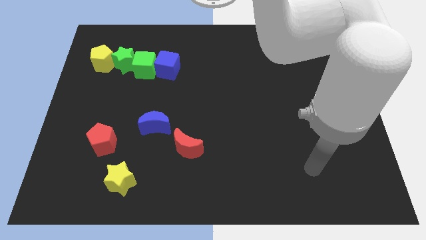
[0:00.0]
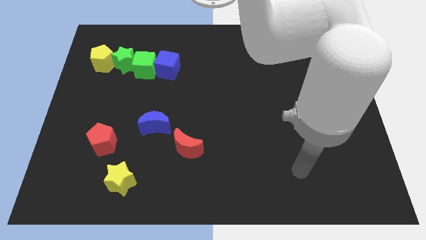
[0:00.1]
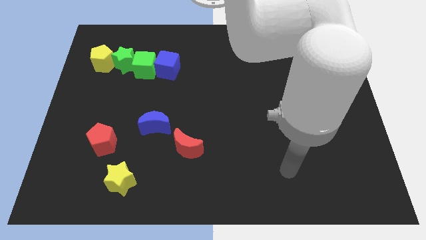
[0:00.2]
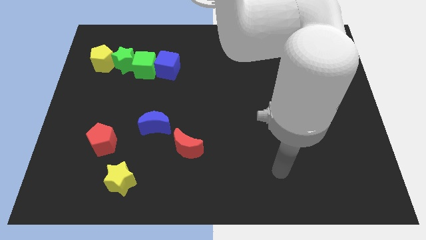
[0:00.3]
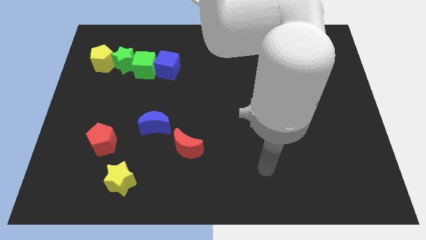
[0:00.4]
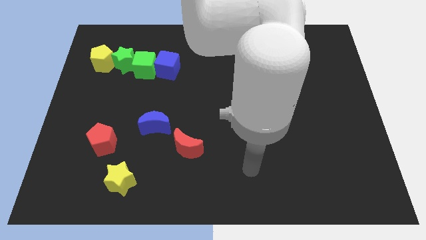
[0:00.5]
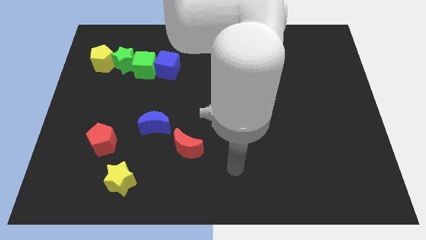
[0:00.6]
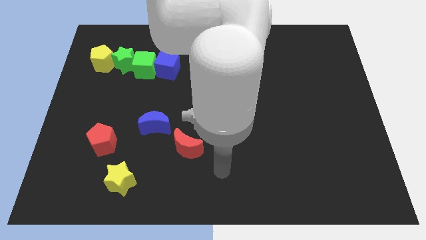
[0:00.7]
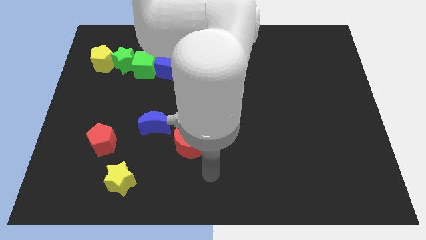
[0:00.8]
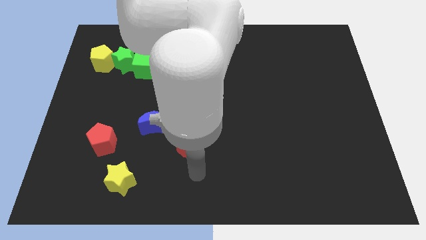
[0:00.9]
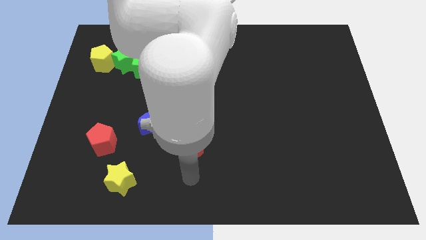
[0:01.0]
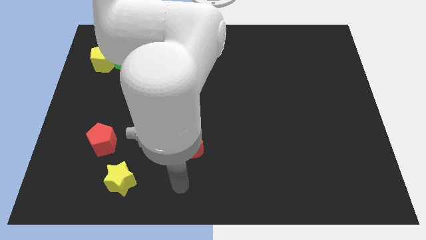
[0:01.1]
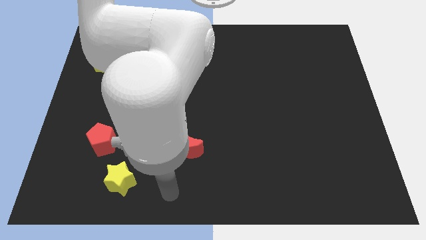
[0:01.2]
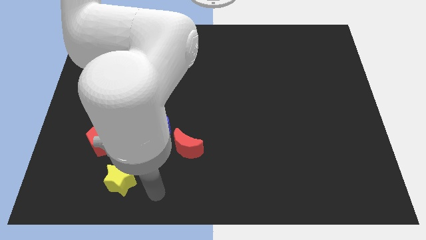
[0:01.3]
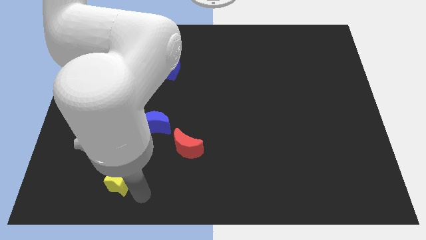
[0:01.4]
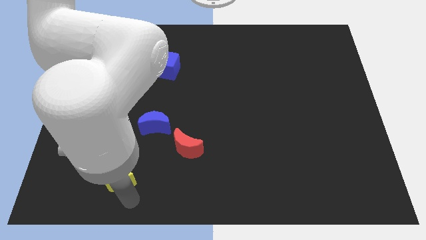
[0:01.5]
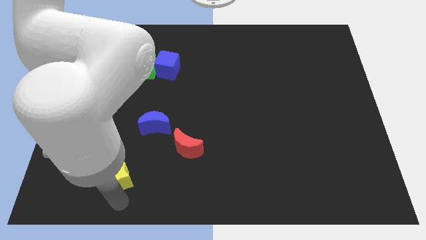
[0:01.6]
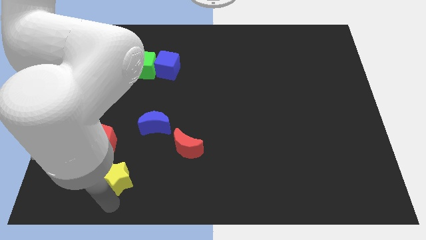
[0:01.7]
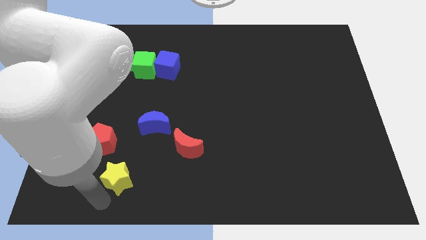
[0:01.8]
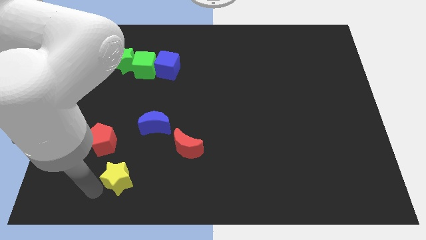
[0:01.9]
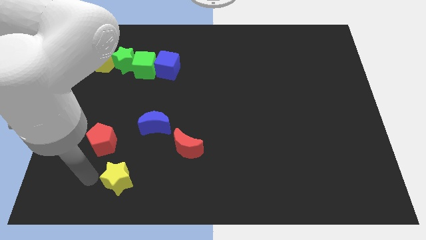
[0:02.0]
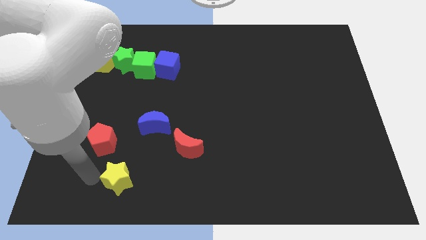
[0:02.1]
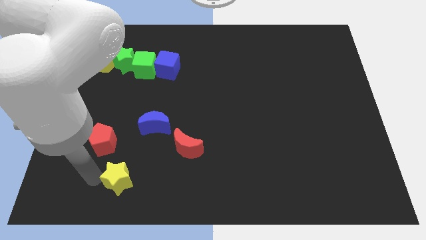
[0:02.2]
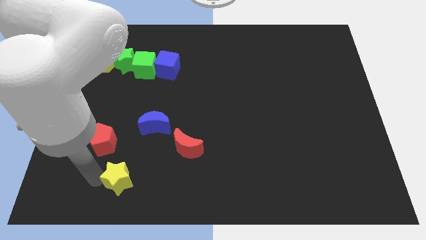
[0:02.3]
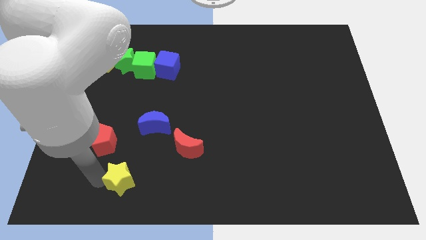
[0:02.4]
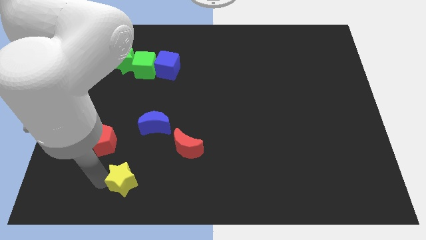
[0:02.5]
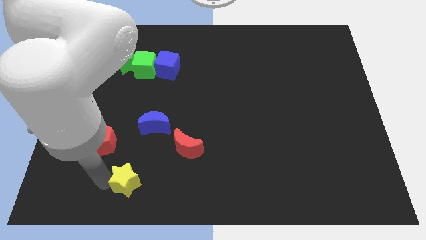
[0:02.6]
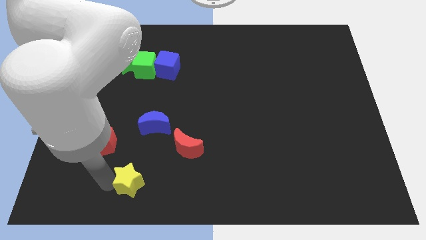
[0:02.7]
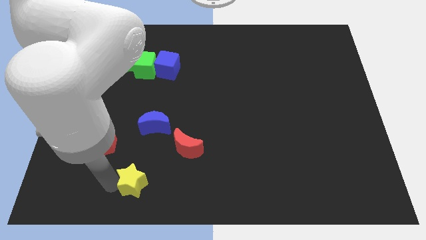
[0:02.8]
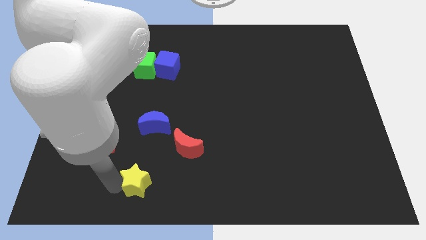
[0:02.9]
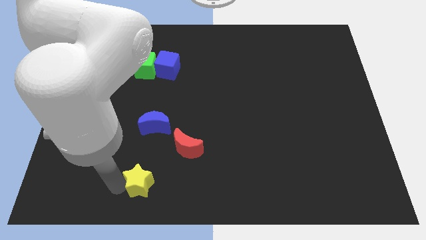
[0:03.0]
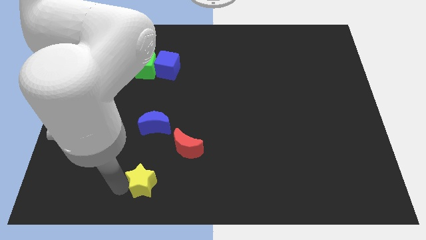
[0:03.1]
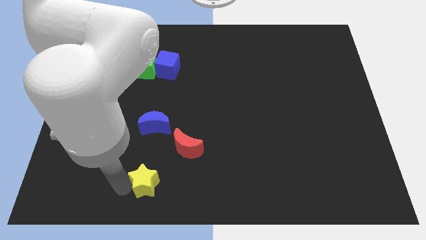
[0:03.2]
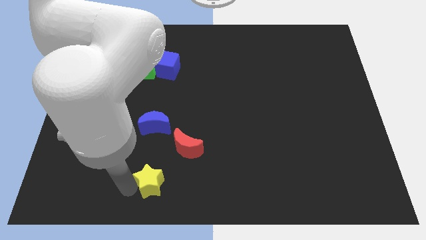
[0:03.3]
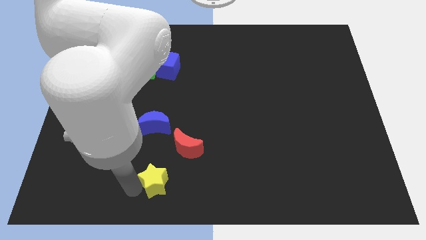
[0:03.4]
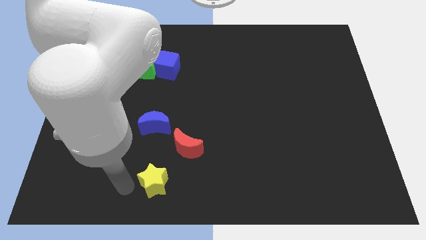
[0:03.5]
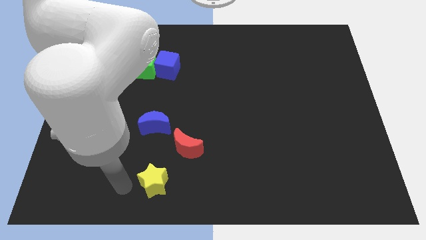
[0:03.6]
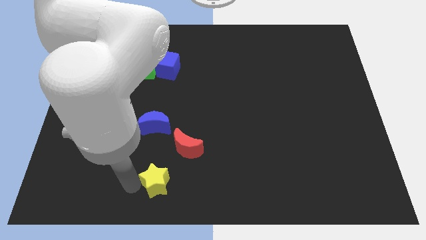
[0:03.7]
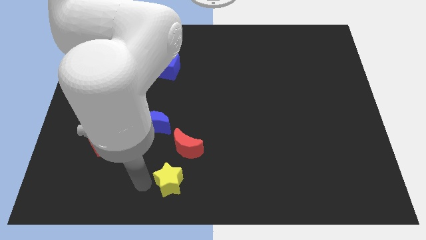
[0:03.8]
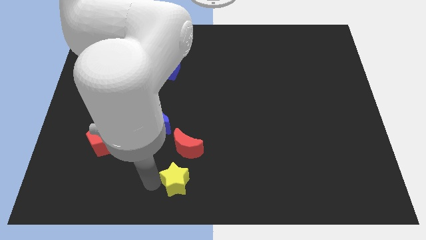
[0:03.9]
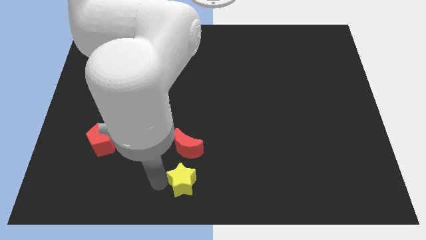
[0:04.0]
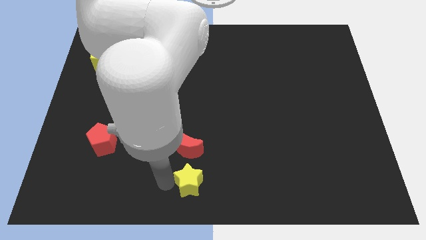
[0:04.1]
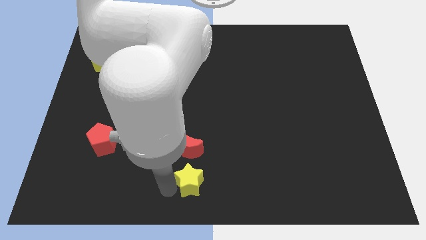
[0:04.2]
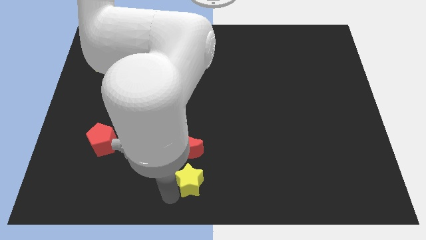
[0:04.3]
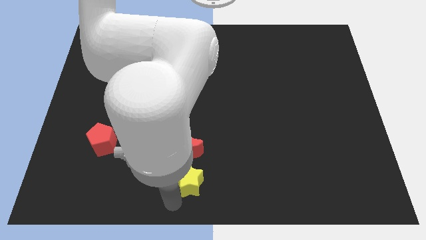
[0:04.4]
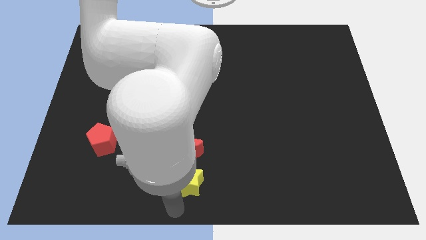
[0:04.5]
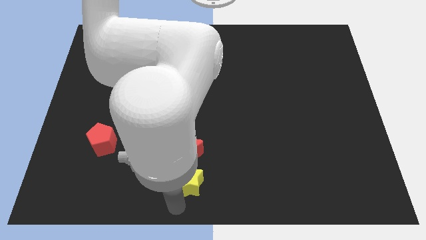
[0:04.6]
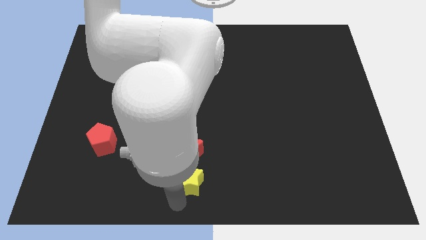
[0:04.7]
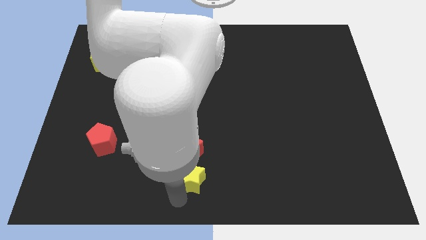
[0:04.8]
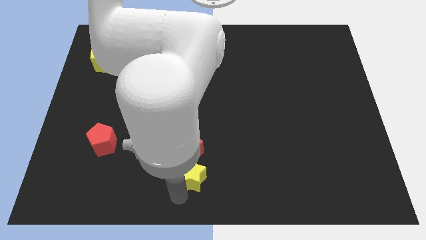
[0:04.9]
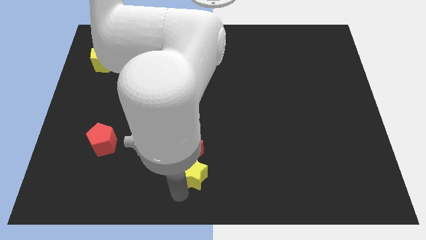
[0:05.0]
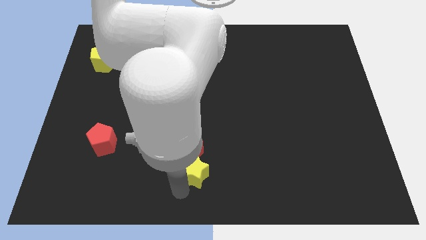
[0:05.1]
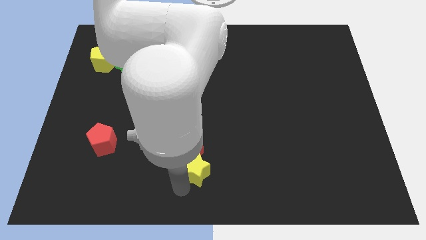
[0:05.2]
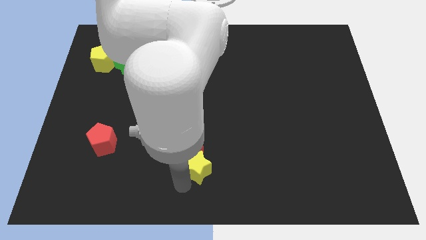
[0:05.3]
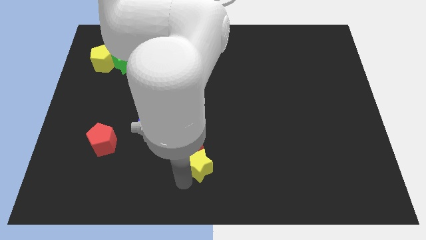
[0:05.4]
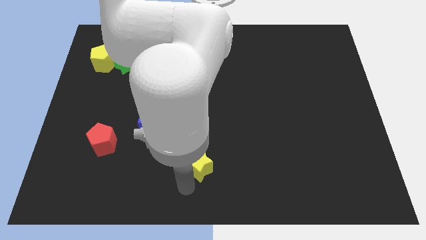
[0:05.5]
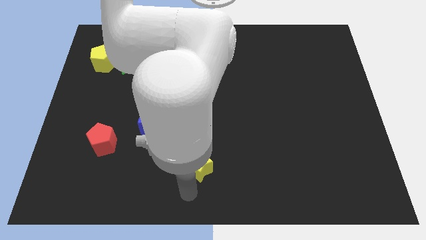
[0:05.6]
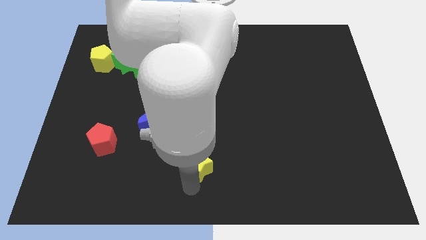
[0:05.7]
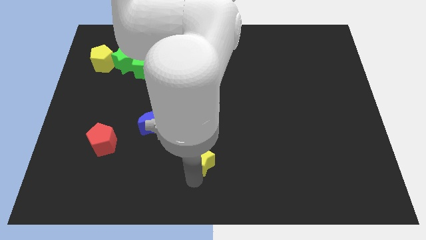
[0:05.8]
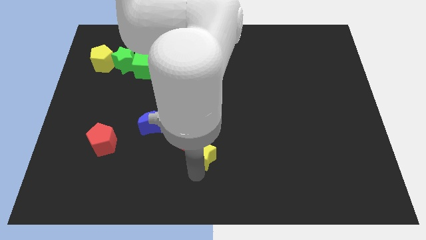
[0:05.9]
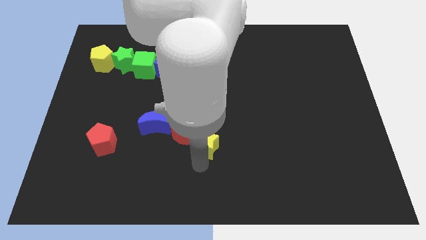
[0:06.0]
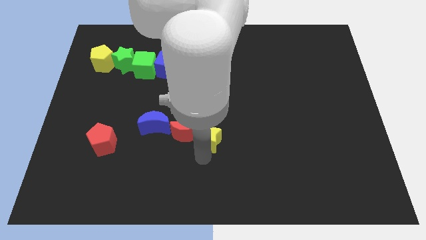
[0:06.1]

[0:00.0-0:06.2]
move the yellow star to the center
